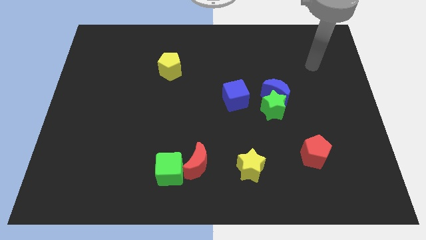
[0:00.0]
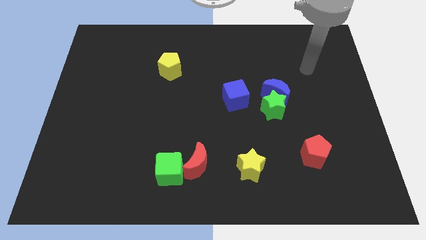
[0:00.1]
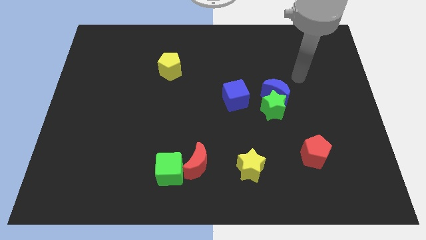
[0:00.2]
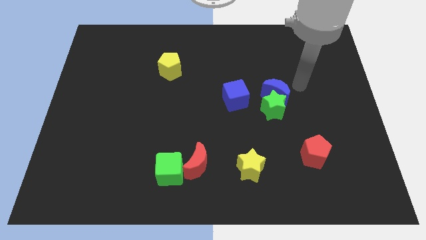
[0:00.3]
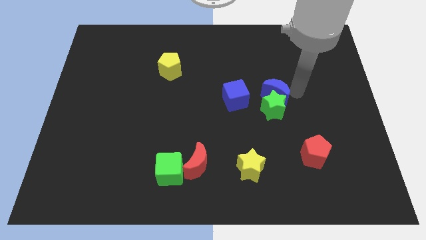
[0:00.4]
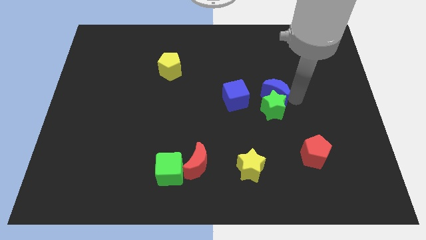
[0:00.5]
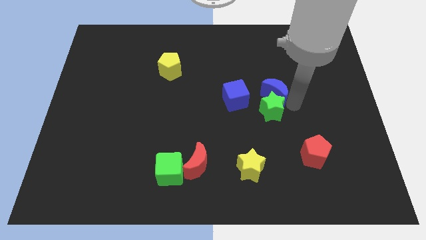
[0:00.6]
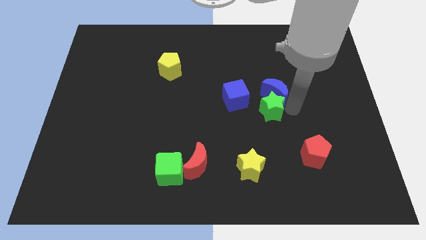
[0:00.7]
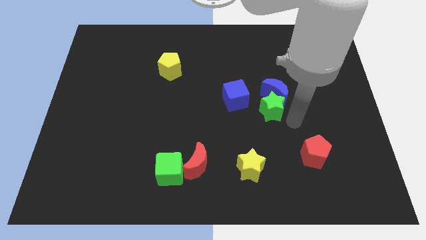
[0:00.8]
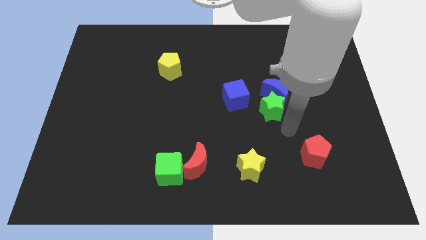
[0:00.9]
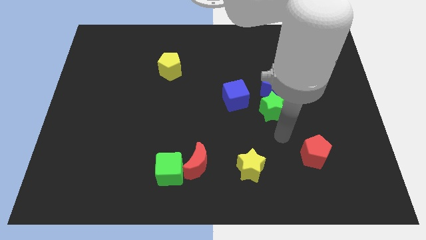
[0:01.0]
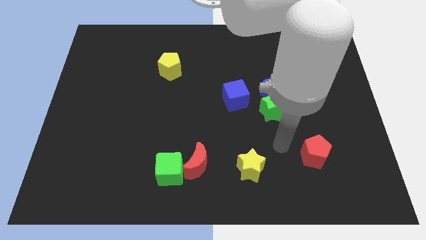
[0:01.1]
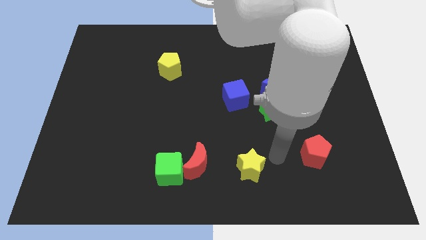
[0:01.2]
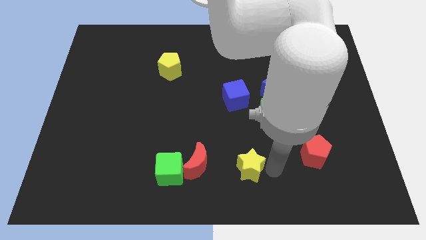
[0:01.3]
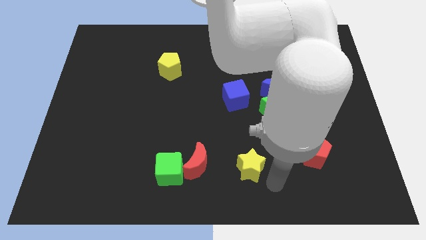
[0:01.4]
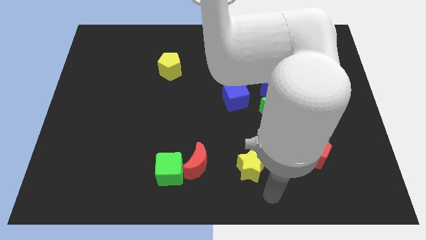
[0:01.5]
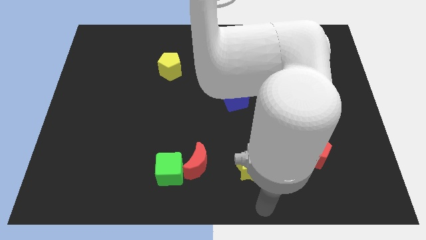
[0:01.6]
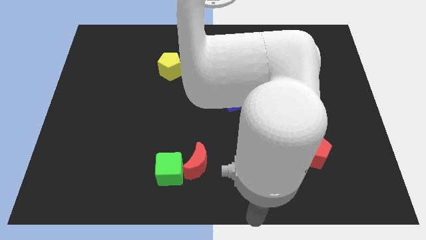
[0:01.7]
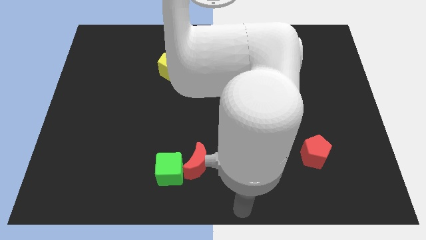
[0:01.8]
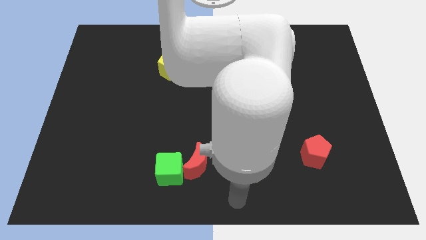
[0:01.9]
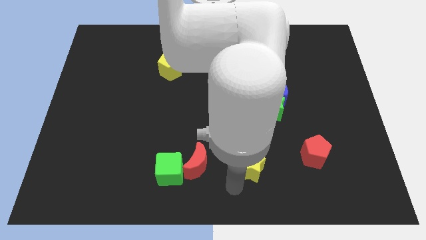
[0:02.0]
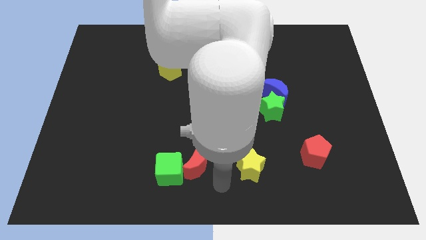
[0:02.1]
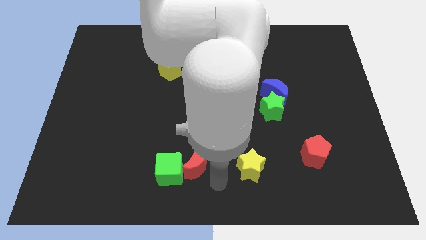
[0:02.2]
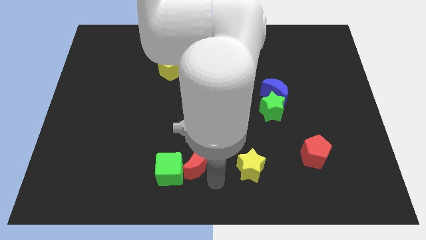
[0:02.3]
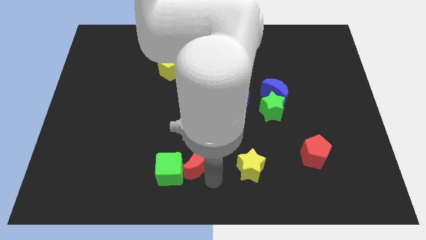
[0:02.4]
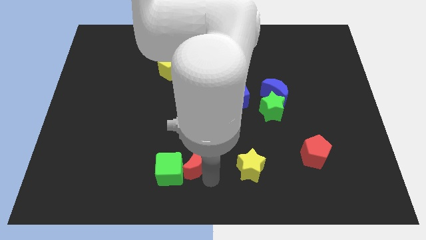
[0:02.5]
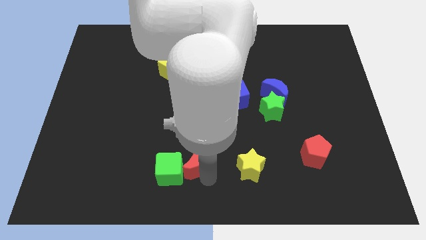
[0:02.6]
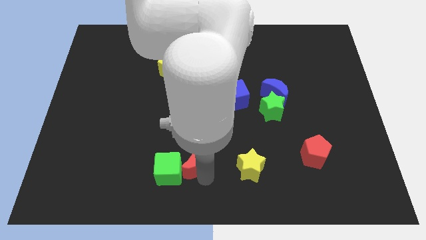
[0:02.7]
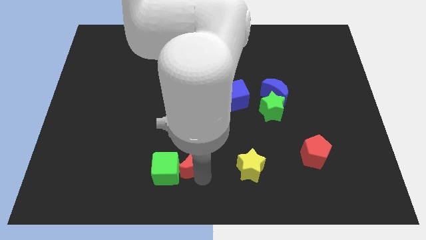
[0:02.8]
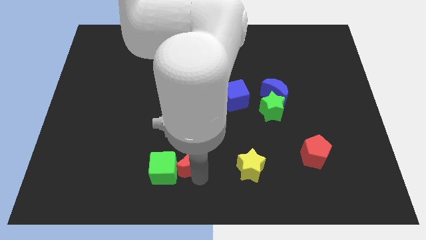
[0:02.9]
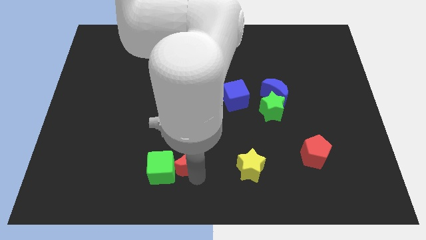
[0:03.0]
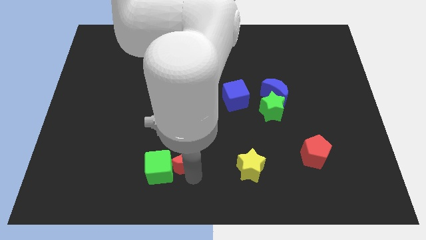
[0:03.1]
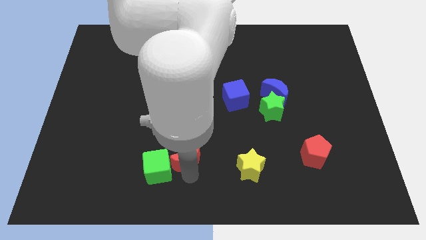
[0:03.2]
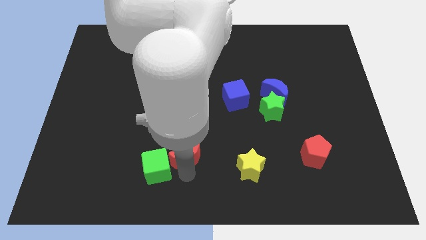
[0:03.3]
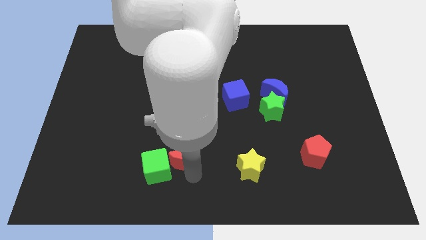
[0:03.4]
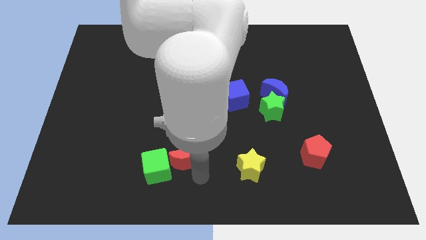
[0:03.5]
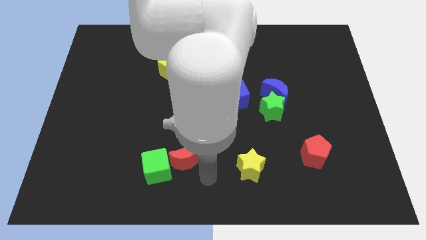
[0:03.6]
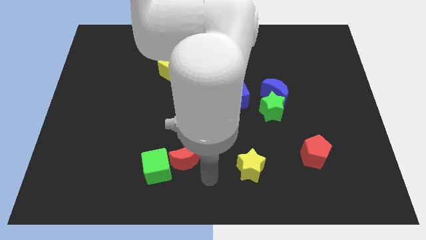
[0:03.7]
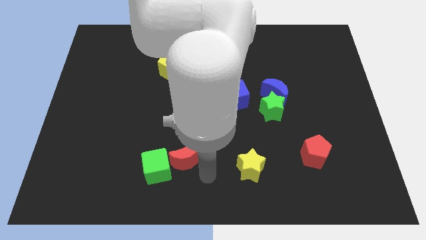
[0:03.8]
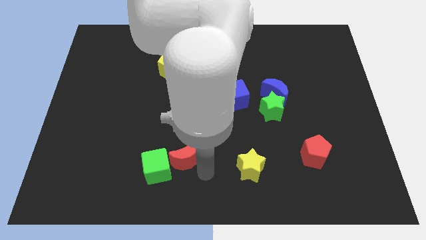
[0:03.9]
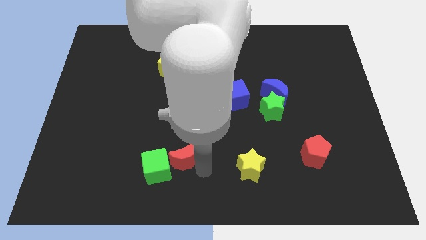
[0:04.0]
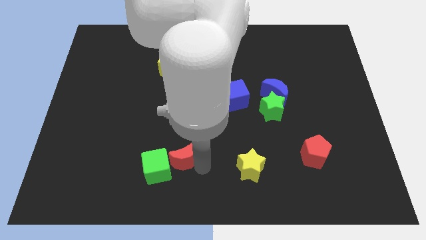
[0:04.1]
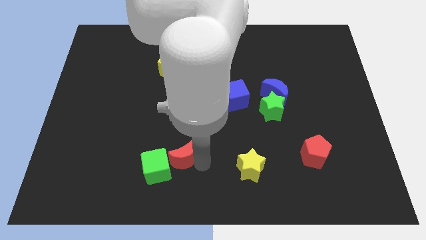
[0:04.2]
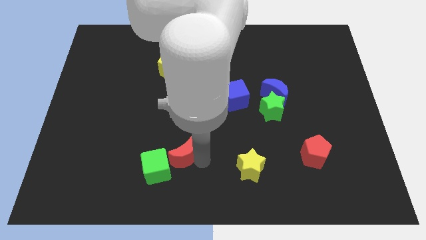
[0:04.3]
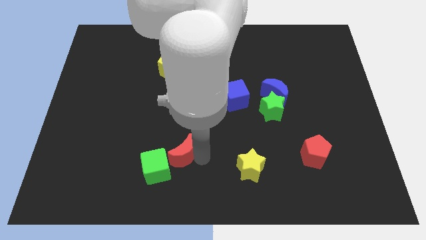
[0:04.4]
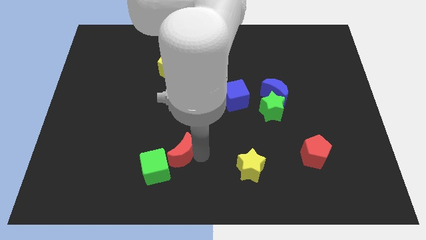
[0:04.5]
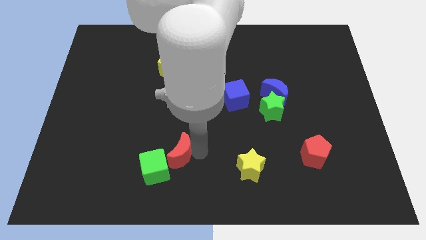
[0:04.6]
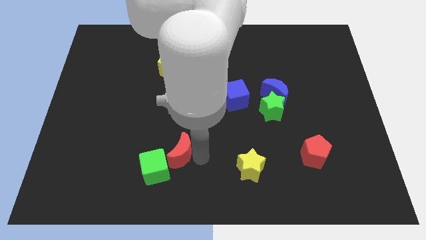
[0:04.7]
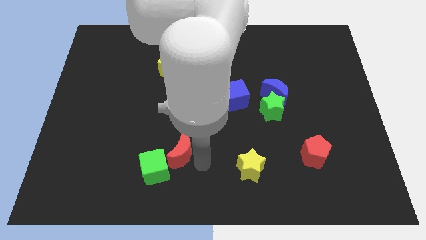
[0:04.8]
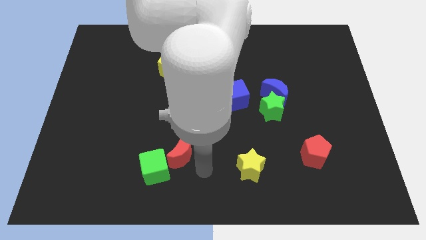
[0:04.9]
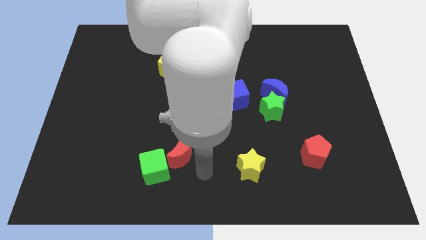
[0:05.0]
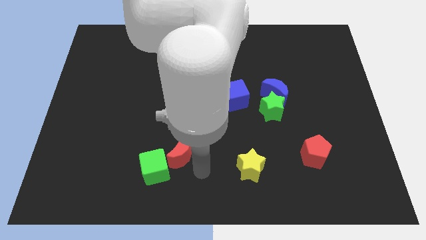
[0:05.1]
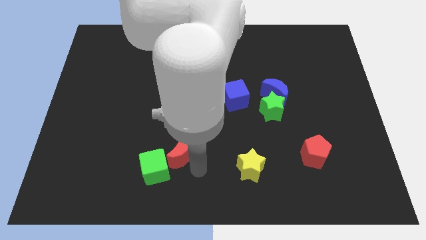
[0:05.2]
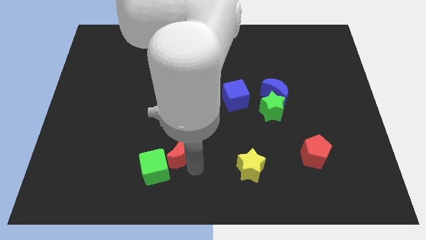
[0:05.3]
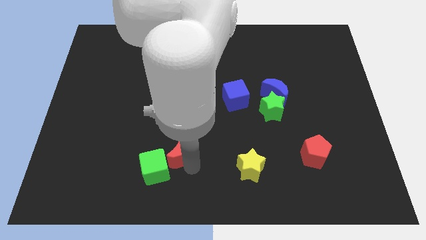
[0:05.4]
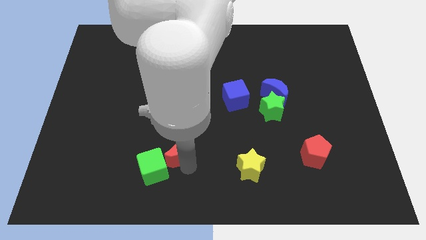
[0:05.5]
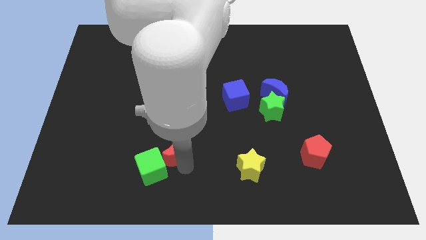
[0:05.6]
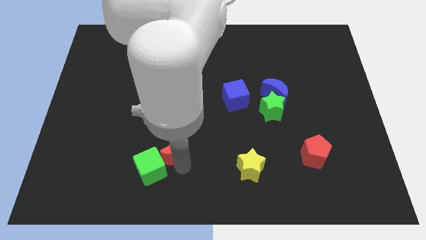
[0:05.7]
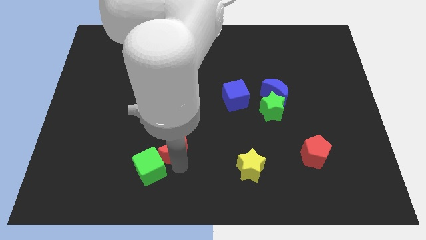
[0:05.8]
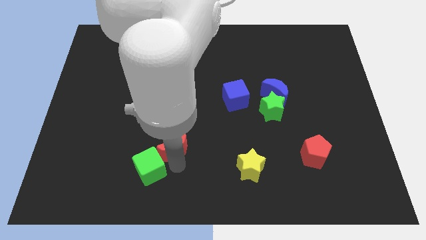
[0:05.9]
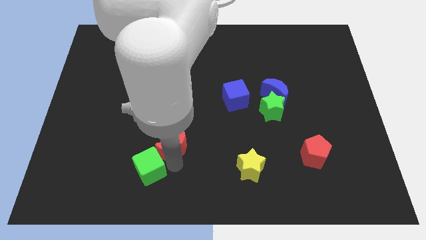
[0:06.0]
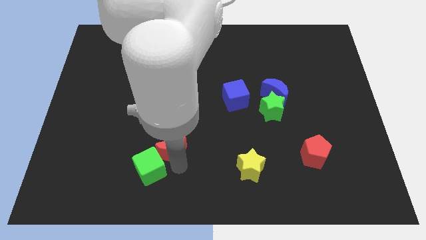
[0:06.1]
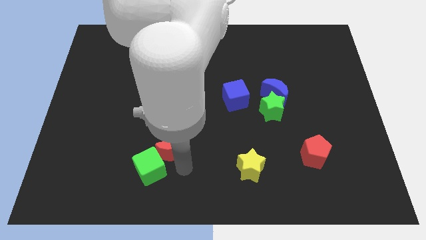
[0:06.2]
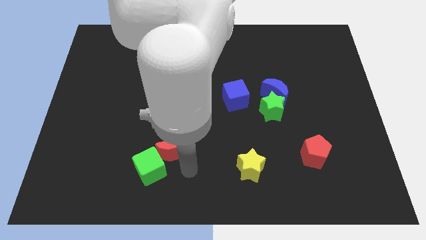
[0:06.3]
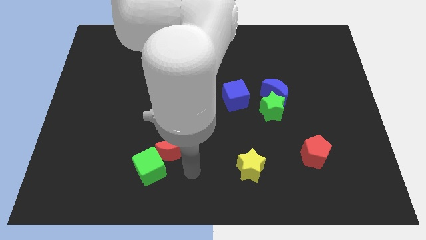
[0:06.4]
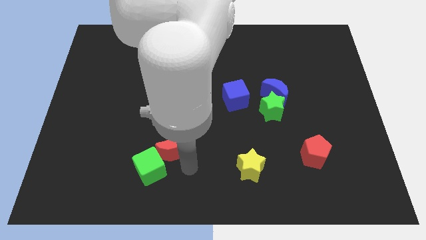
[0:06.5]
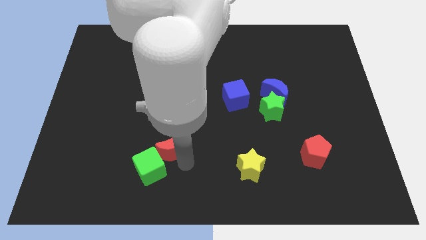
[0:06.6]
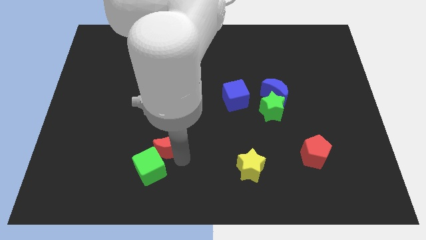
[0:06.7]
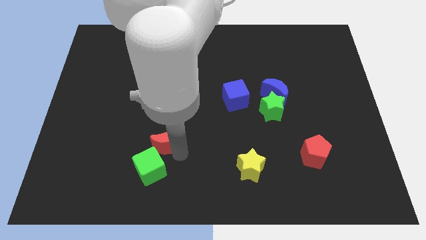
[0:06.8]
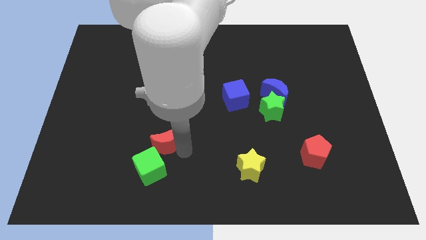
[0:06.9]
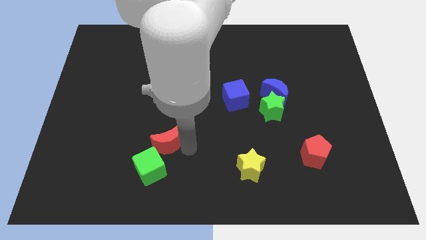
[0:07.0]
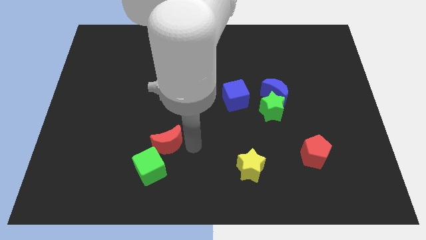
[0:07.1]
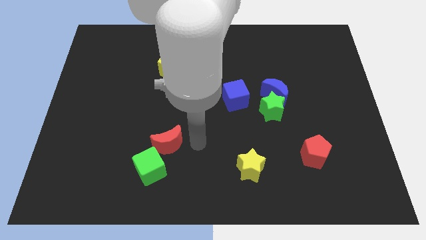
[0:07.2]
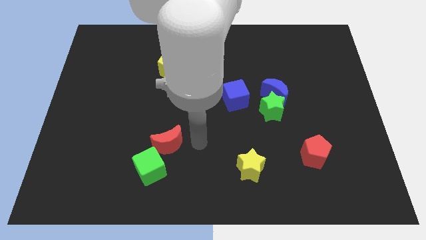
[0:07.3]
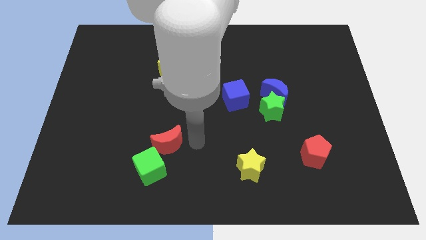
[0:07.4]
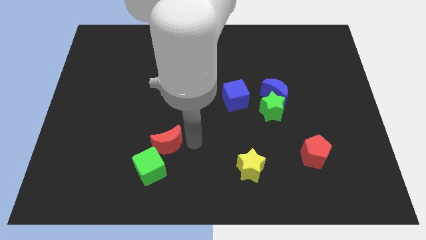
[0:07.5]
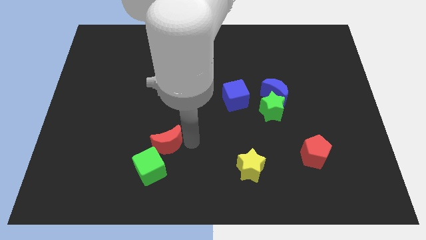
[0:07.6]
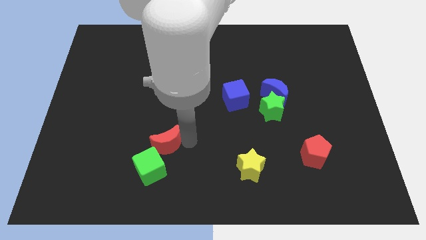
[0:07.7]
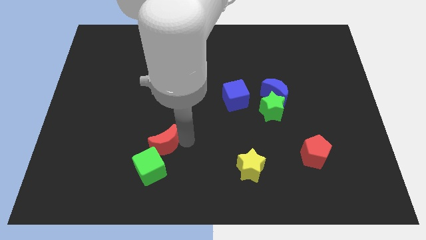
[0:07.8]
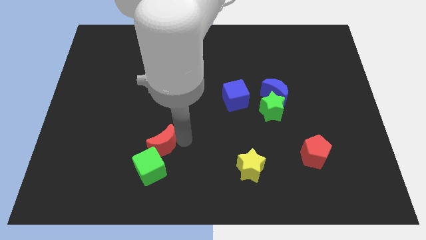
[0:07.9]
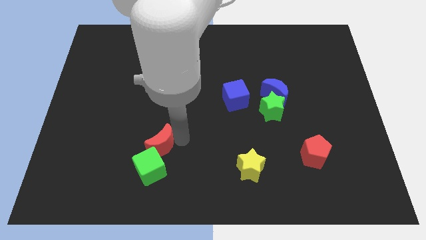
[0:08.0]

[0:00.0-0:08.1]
move the red moon left a little bit

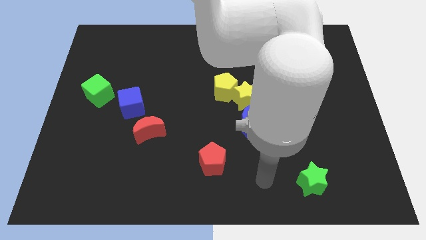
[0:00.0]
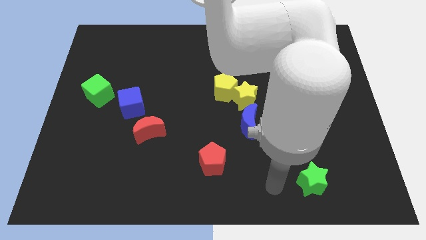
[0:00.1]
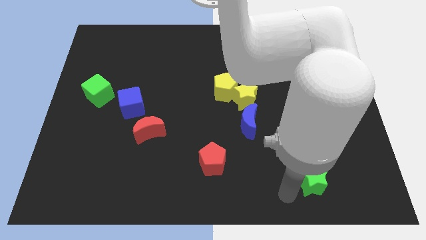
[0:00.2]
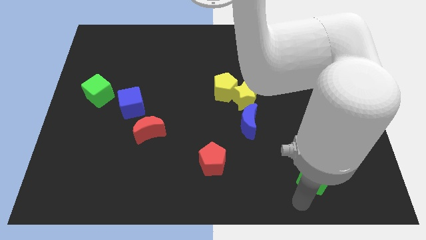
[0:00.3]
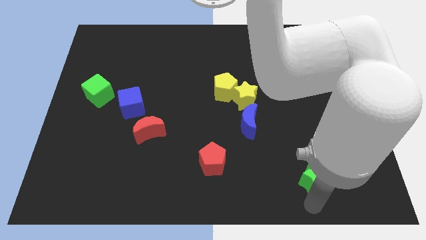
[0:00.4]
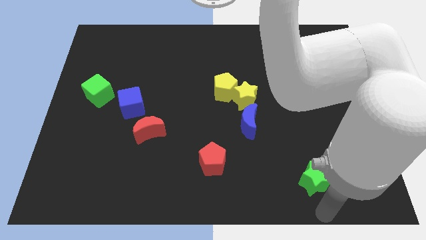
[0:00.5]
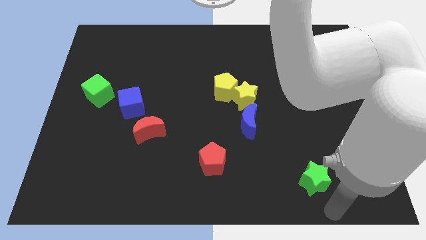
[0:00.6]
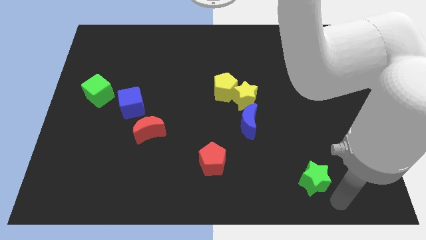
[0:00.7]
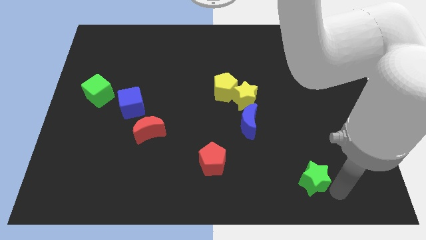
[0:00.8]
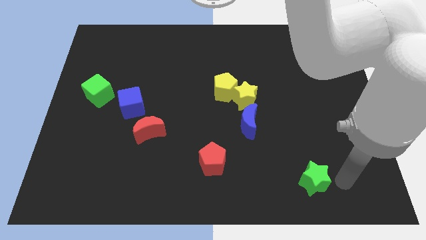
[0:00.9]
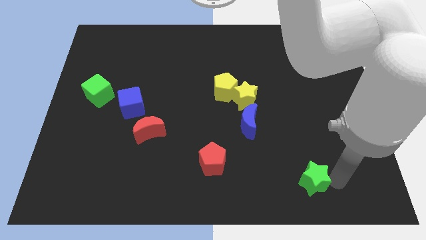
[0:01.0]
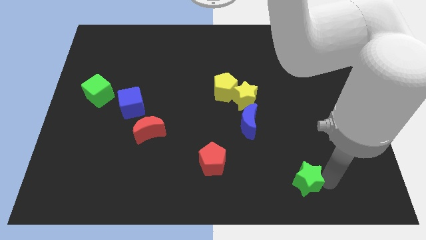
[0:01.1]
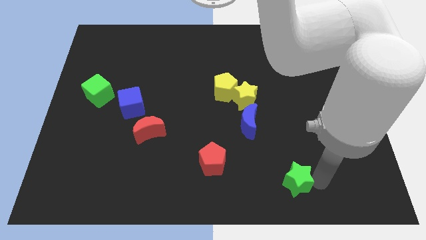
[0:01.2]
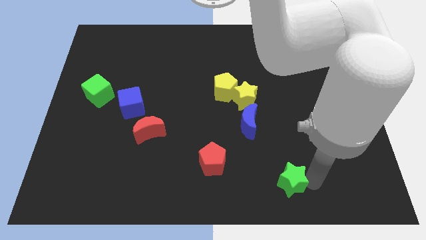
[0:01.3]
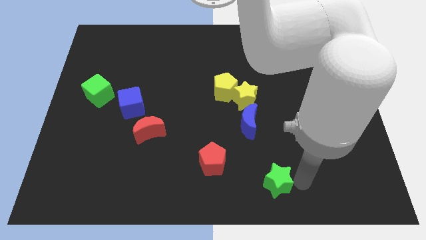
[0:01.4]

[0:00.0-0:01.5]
slightly push the green star to the left
